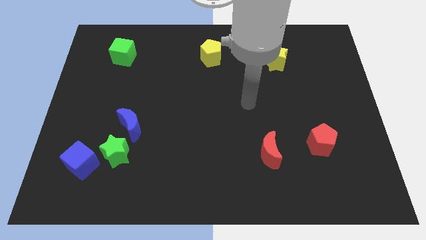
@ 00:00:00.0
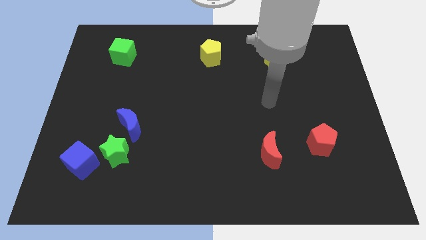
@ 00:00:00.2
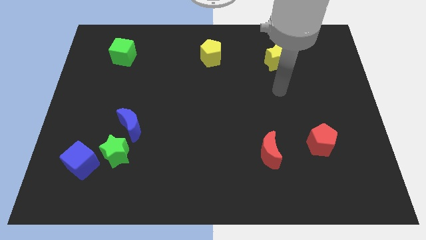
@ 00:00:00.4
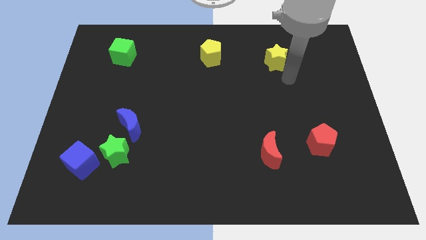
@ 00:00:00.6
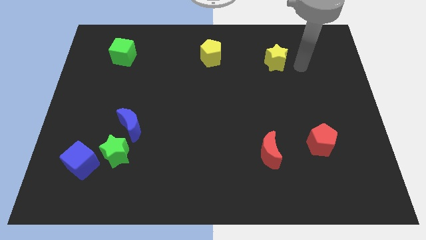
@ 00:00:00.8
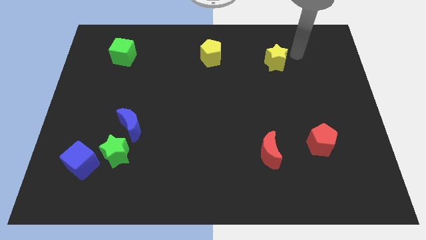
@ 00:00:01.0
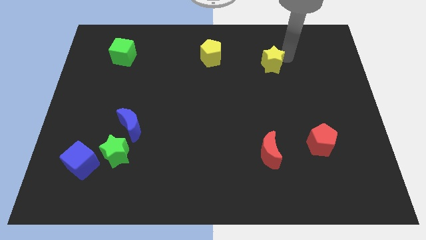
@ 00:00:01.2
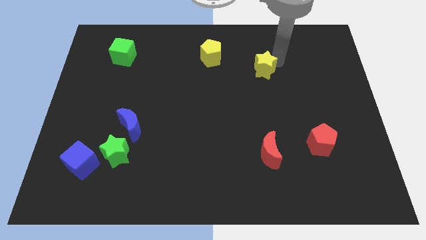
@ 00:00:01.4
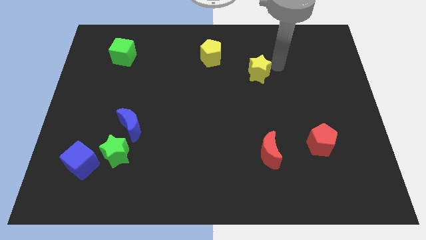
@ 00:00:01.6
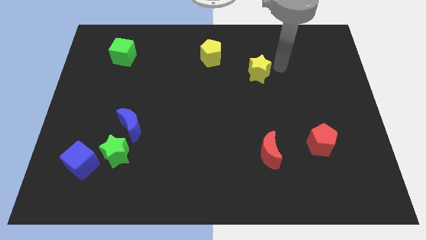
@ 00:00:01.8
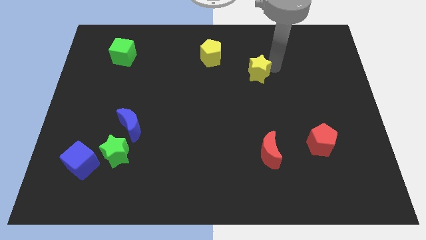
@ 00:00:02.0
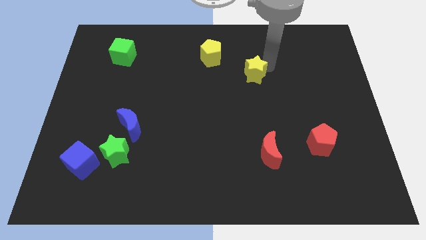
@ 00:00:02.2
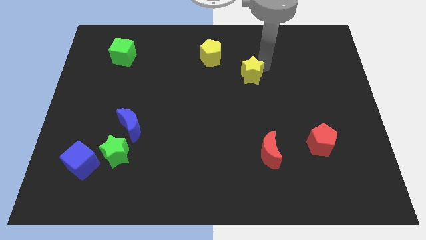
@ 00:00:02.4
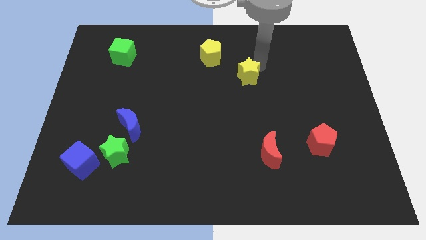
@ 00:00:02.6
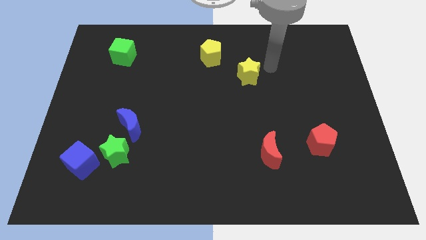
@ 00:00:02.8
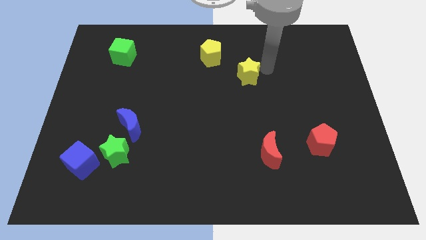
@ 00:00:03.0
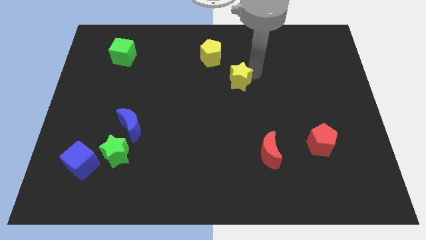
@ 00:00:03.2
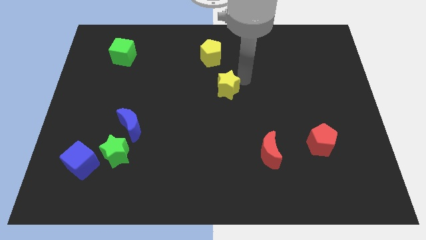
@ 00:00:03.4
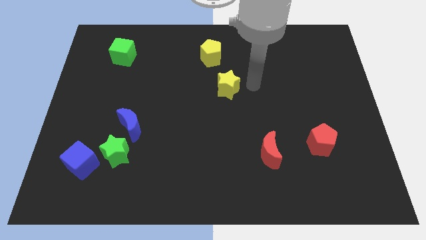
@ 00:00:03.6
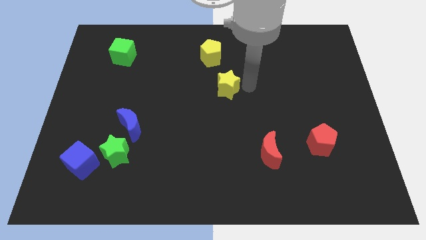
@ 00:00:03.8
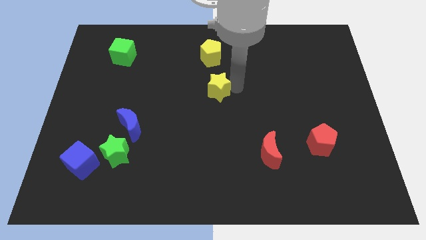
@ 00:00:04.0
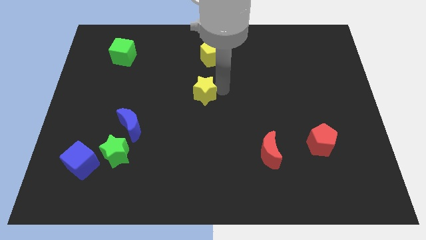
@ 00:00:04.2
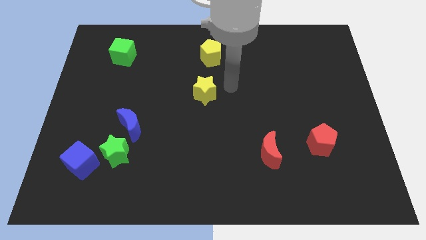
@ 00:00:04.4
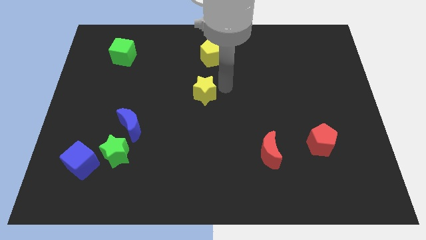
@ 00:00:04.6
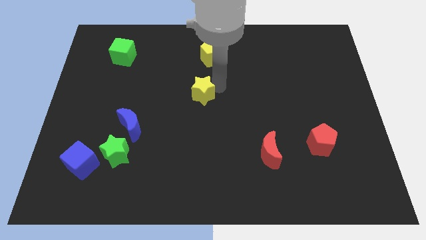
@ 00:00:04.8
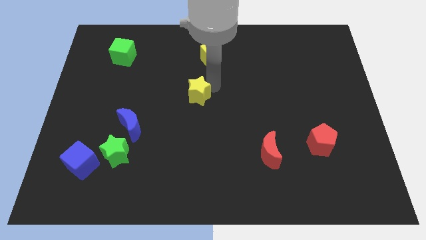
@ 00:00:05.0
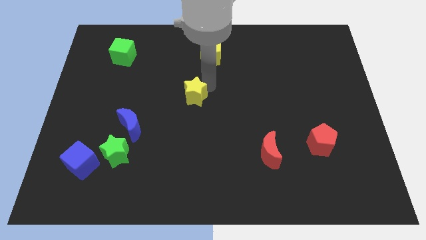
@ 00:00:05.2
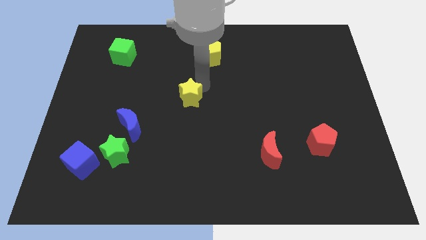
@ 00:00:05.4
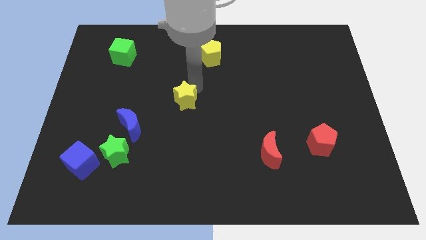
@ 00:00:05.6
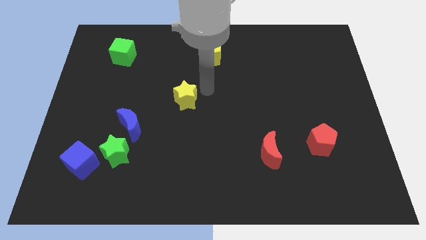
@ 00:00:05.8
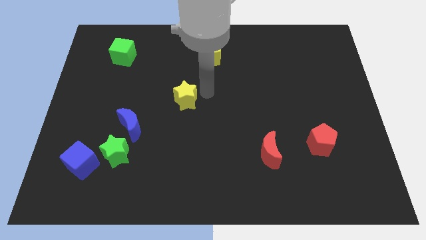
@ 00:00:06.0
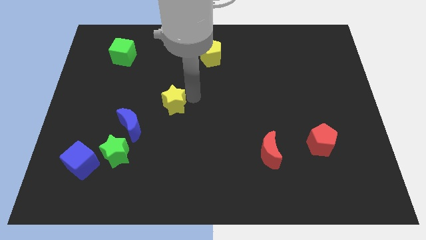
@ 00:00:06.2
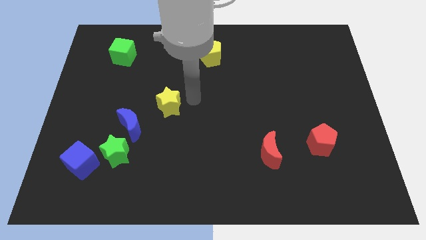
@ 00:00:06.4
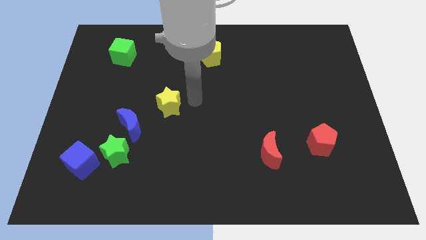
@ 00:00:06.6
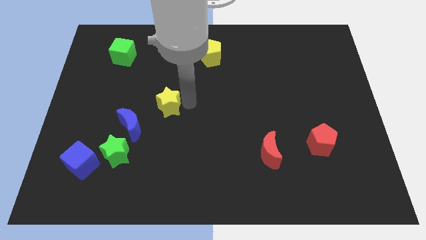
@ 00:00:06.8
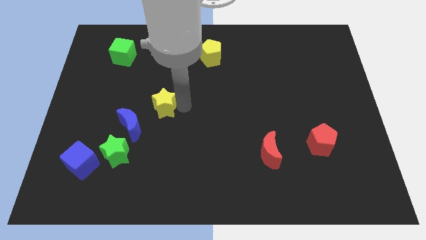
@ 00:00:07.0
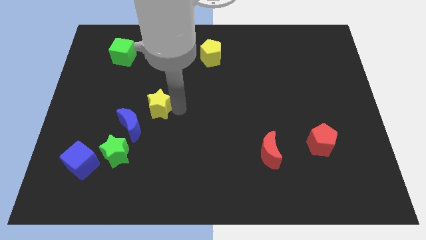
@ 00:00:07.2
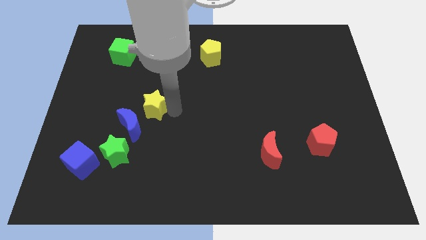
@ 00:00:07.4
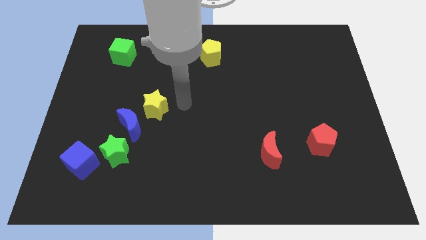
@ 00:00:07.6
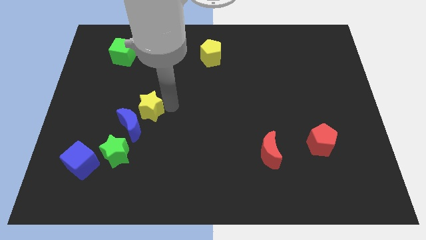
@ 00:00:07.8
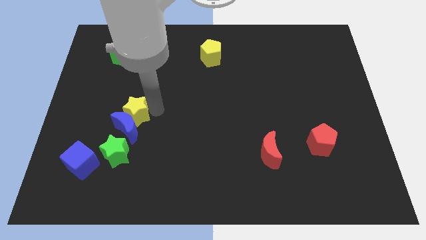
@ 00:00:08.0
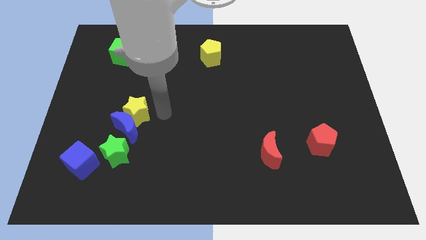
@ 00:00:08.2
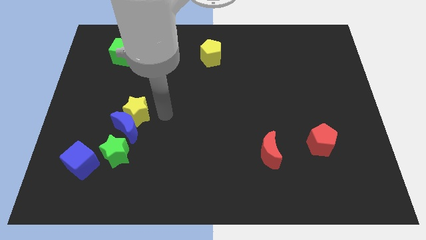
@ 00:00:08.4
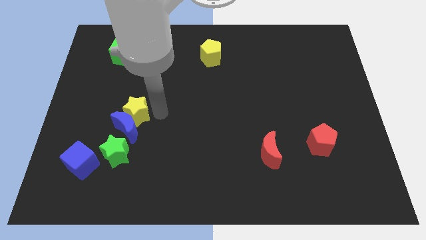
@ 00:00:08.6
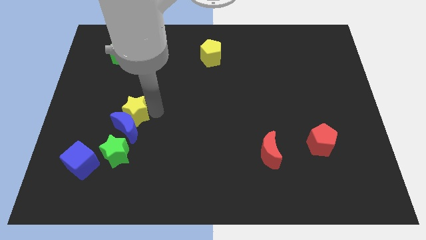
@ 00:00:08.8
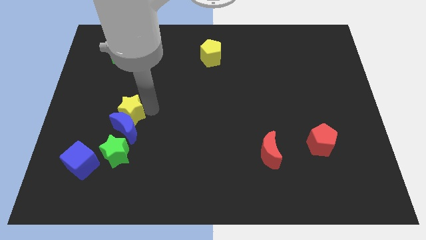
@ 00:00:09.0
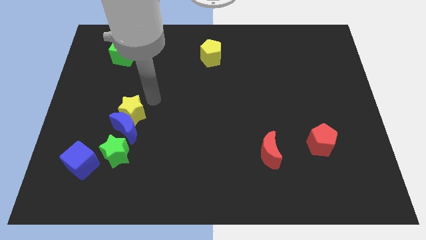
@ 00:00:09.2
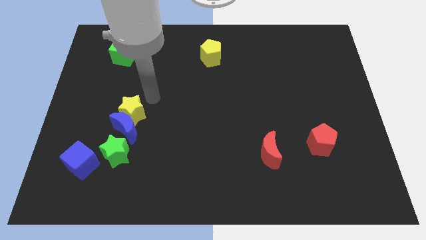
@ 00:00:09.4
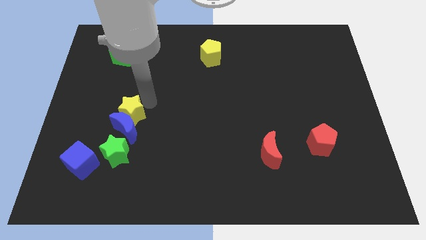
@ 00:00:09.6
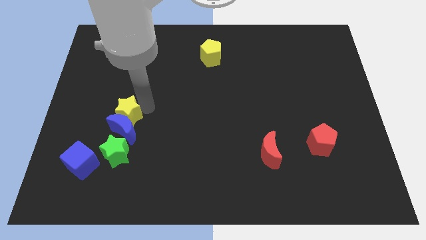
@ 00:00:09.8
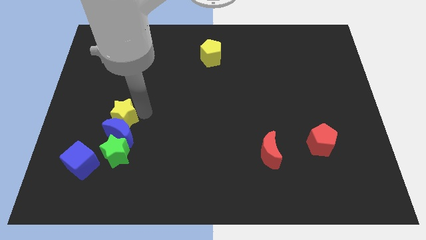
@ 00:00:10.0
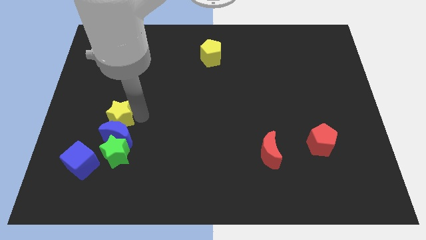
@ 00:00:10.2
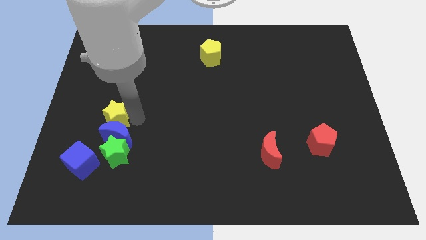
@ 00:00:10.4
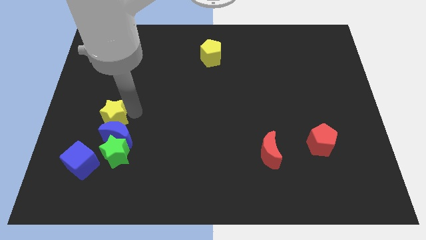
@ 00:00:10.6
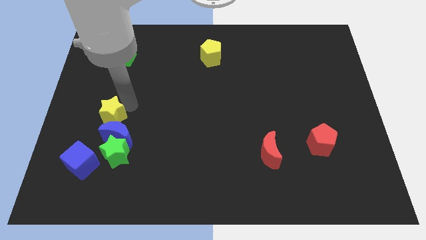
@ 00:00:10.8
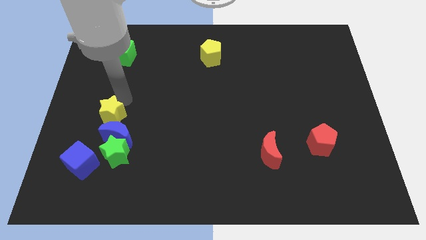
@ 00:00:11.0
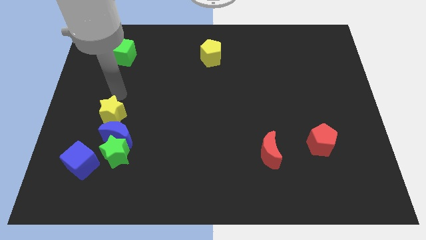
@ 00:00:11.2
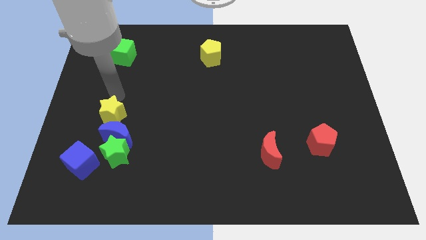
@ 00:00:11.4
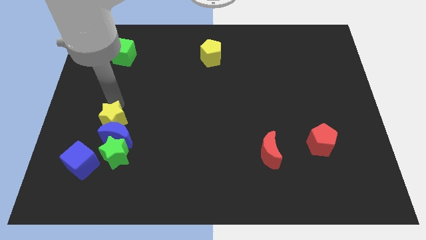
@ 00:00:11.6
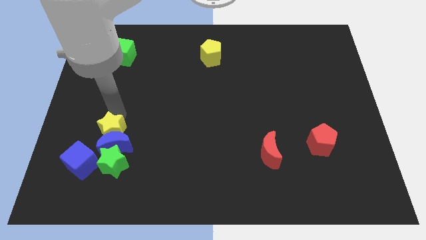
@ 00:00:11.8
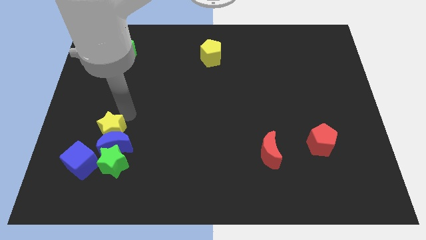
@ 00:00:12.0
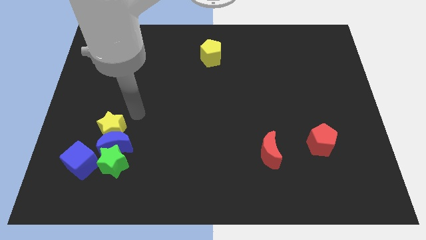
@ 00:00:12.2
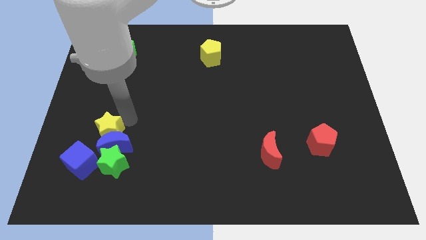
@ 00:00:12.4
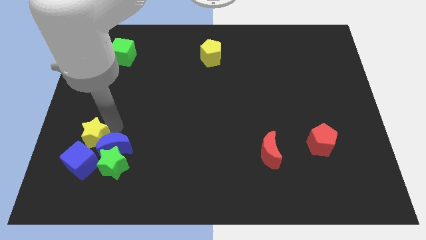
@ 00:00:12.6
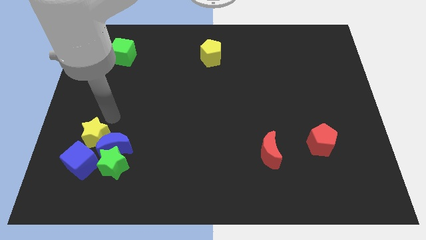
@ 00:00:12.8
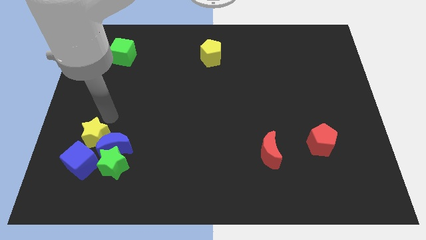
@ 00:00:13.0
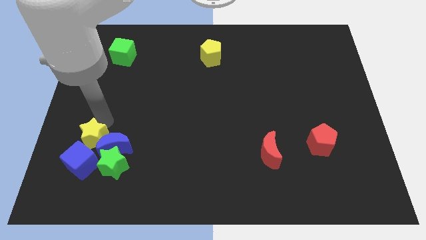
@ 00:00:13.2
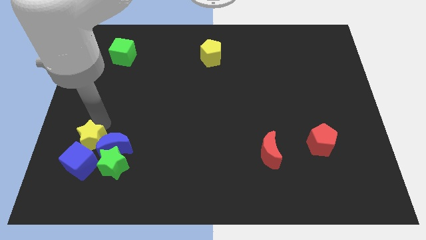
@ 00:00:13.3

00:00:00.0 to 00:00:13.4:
move the yellow star towards the blue cube
